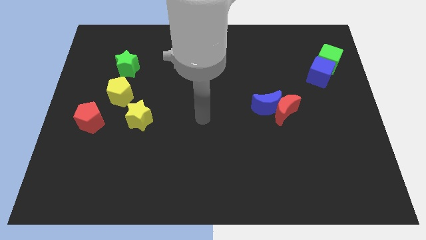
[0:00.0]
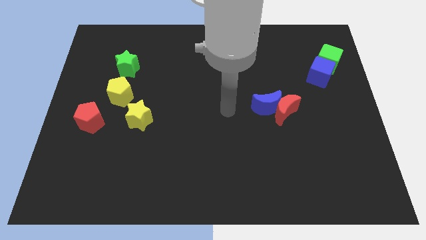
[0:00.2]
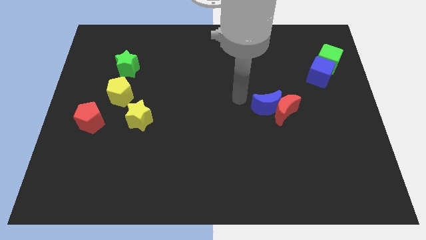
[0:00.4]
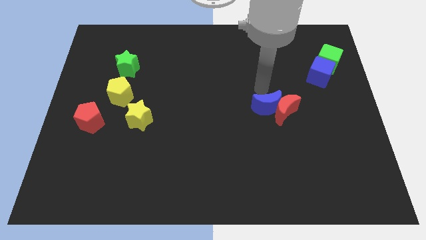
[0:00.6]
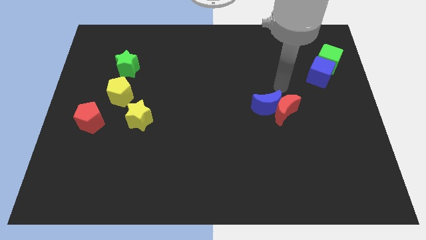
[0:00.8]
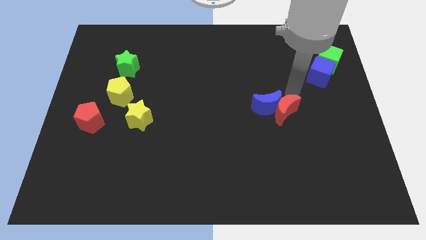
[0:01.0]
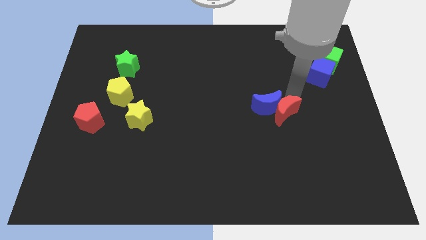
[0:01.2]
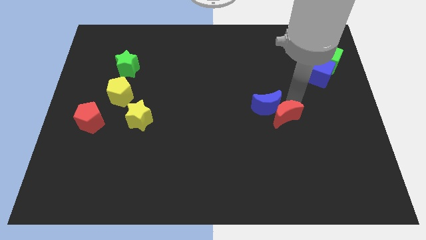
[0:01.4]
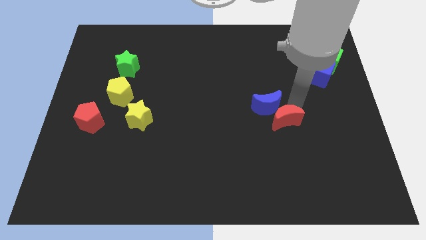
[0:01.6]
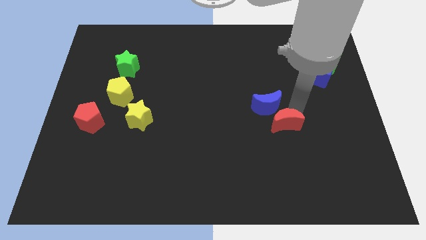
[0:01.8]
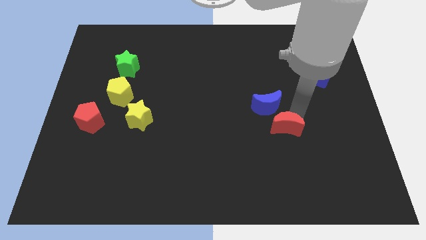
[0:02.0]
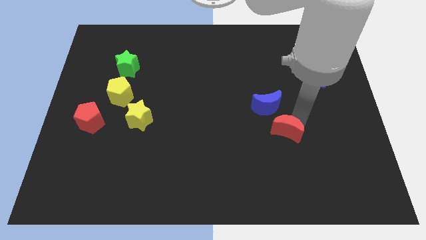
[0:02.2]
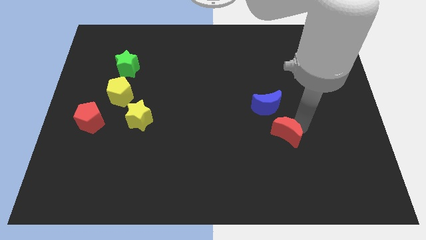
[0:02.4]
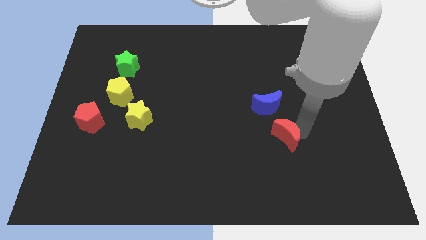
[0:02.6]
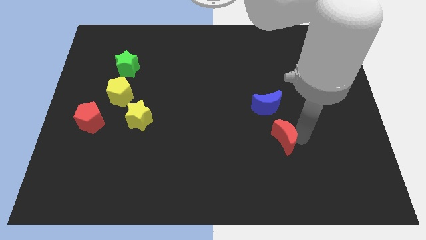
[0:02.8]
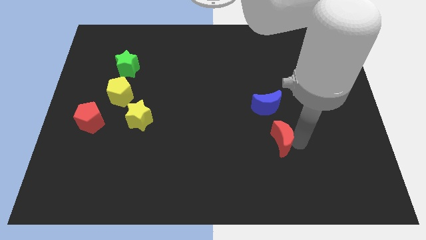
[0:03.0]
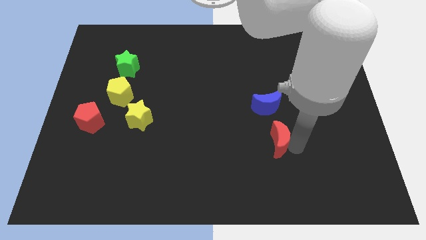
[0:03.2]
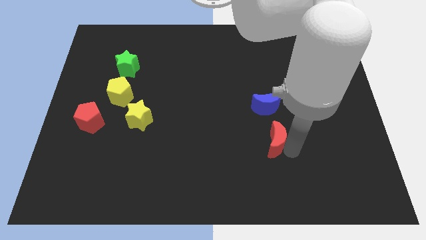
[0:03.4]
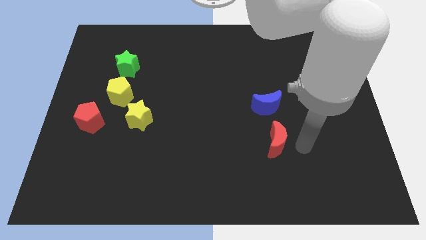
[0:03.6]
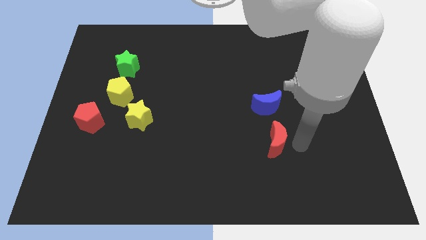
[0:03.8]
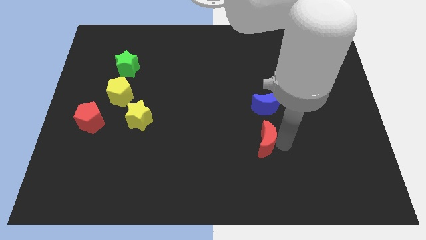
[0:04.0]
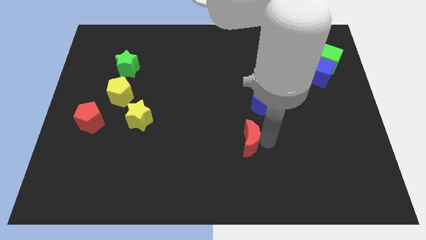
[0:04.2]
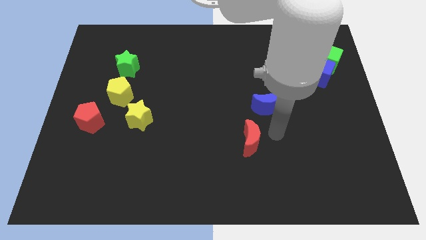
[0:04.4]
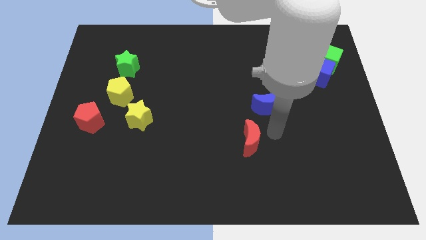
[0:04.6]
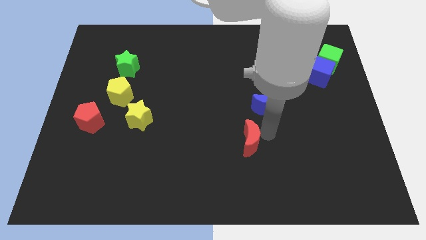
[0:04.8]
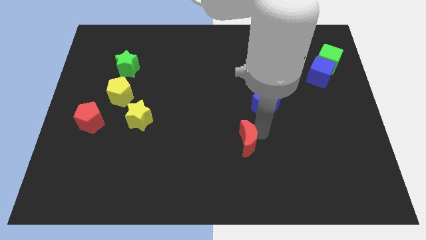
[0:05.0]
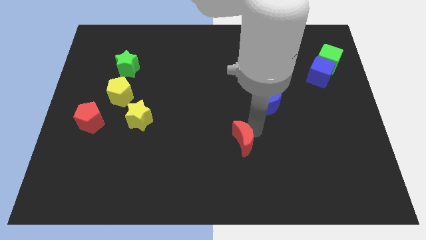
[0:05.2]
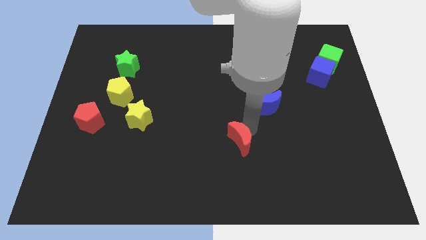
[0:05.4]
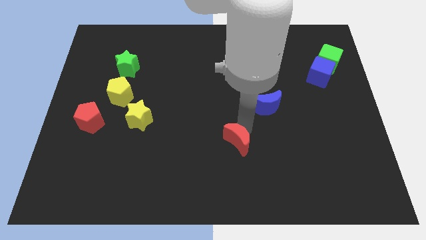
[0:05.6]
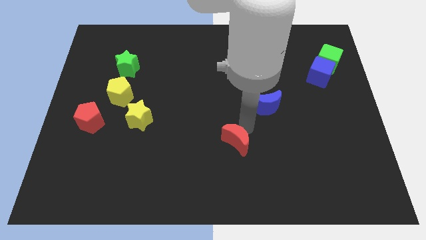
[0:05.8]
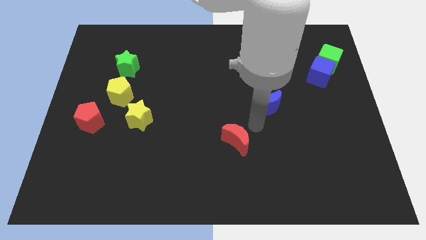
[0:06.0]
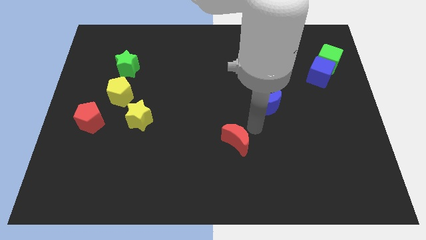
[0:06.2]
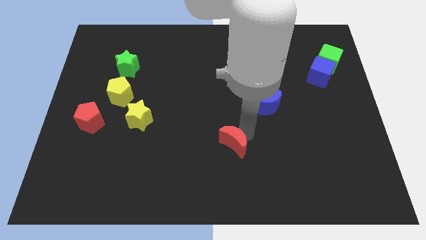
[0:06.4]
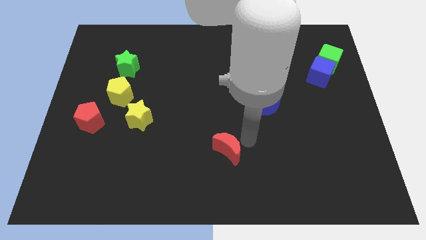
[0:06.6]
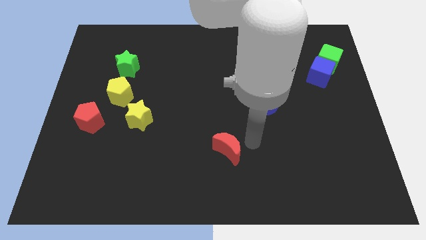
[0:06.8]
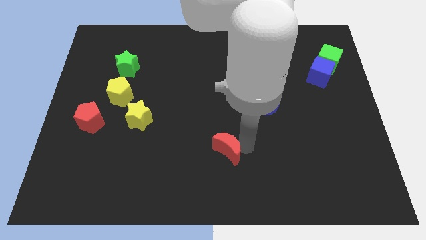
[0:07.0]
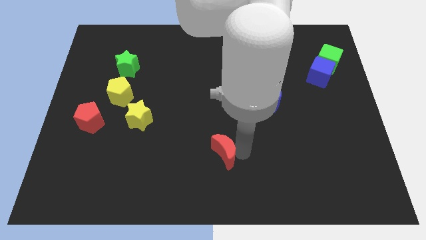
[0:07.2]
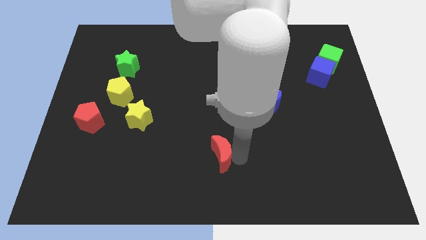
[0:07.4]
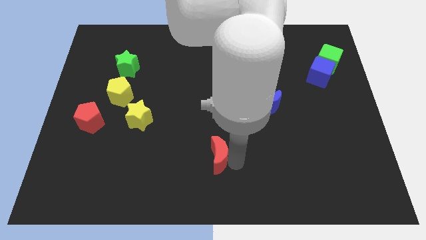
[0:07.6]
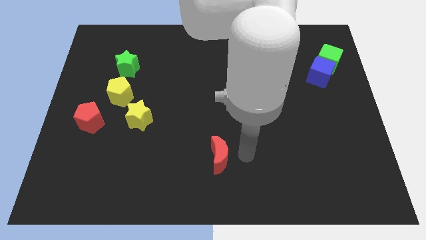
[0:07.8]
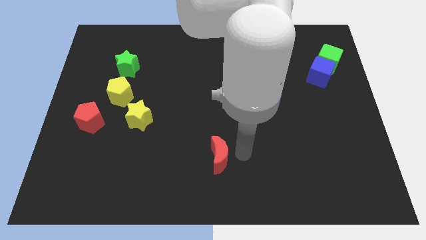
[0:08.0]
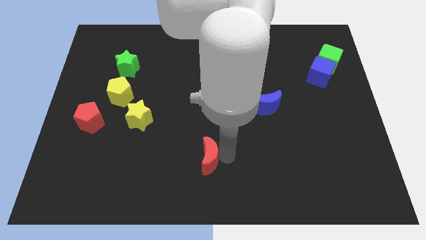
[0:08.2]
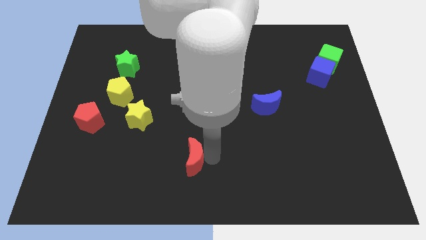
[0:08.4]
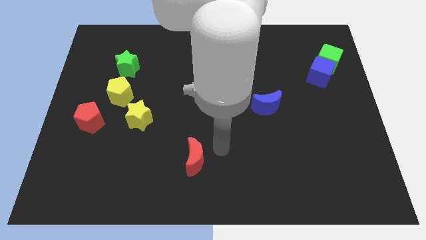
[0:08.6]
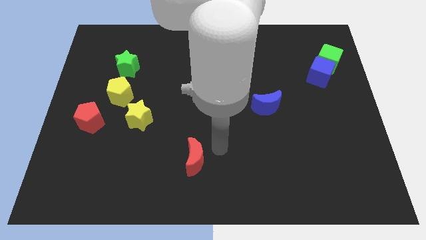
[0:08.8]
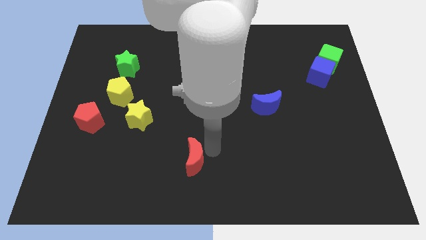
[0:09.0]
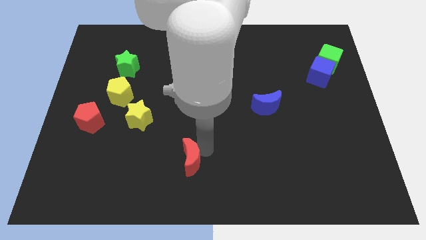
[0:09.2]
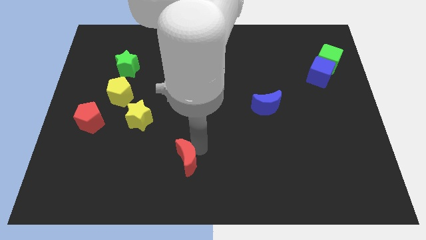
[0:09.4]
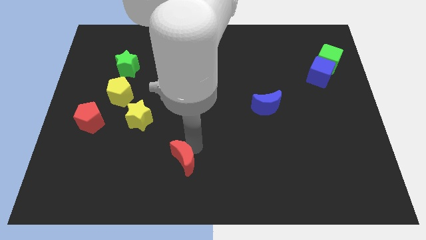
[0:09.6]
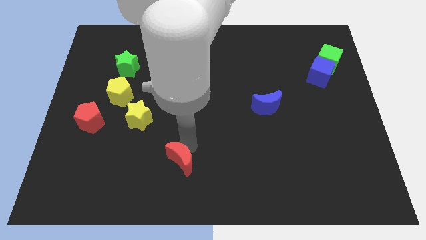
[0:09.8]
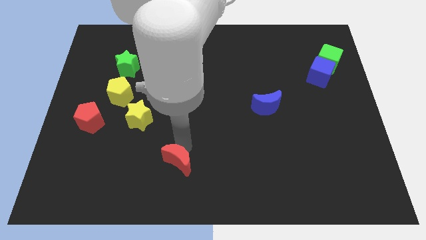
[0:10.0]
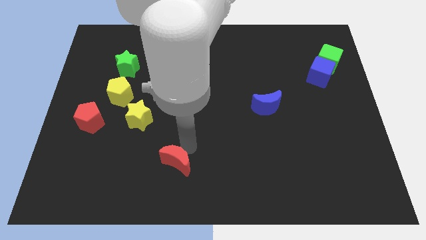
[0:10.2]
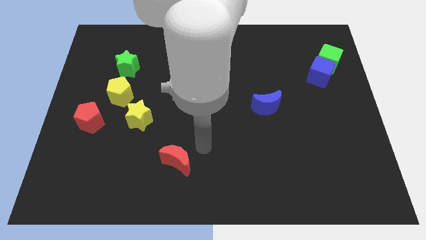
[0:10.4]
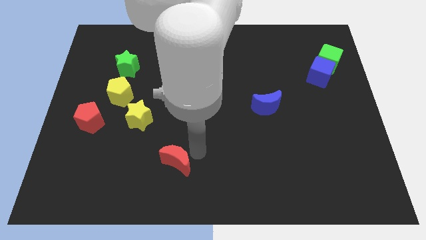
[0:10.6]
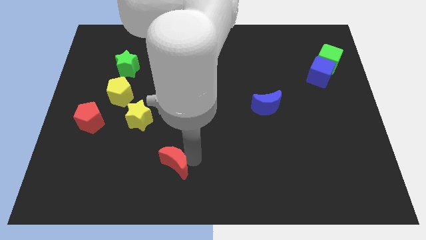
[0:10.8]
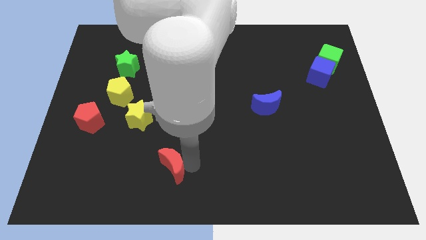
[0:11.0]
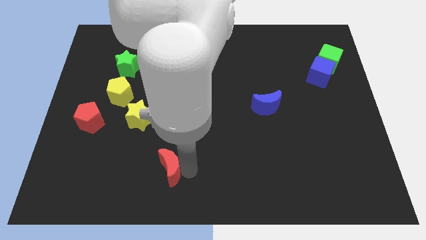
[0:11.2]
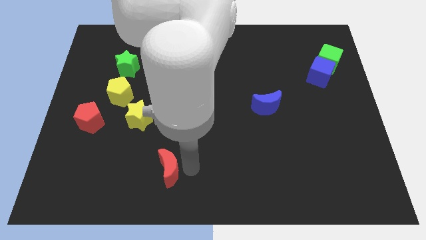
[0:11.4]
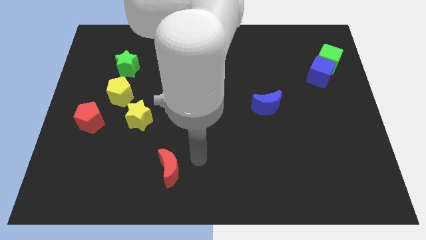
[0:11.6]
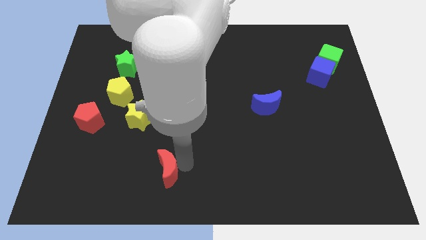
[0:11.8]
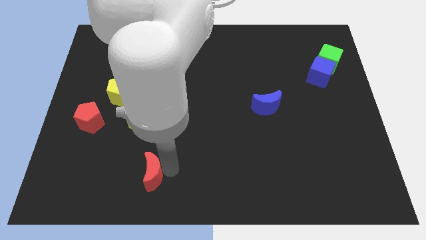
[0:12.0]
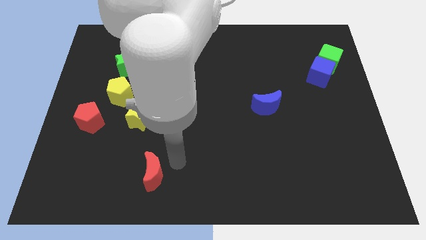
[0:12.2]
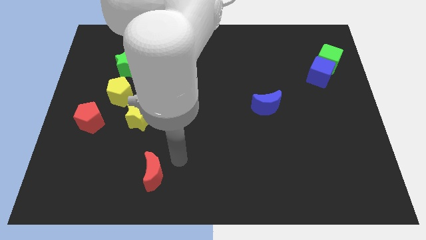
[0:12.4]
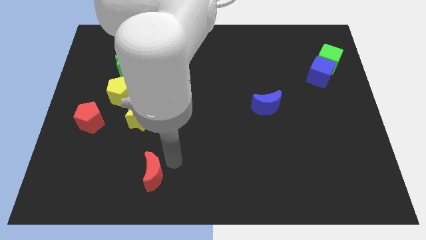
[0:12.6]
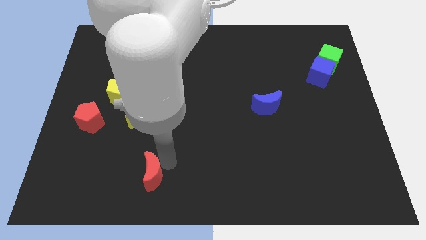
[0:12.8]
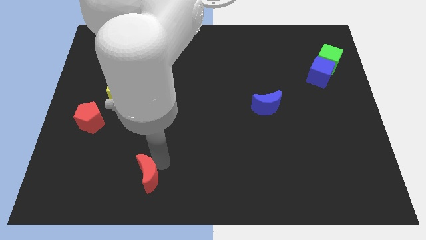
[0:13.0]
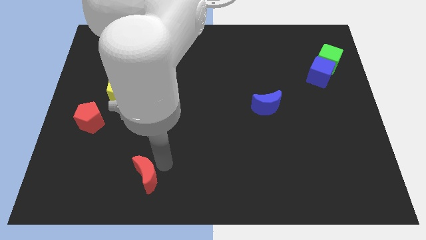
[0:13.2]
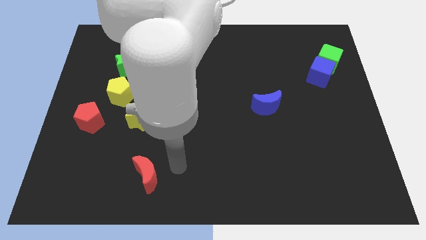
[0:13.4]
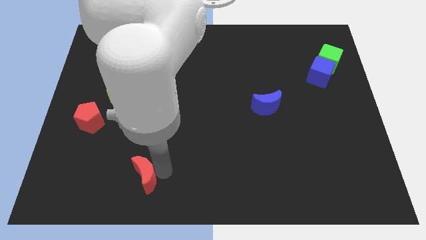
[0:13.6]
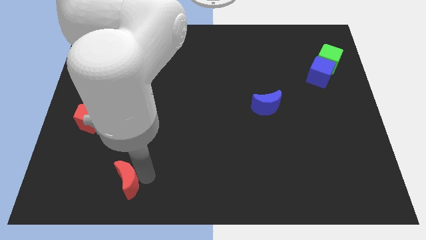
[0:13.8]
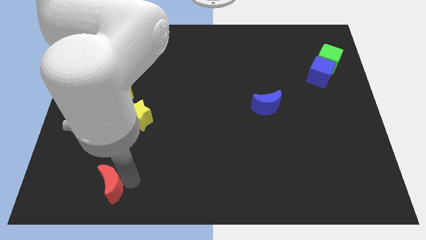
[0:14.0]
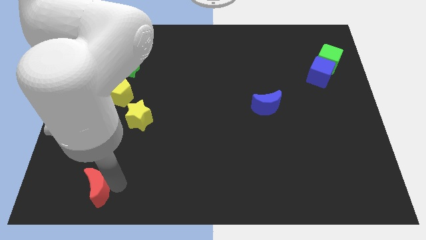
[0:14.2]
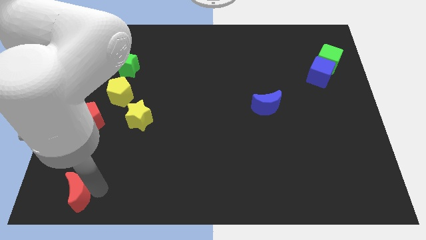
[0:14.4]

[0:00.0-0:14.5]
push the red moon to the bottom left corner
